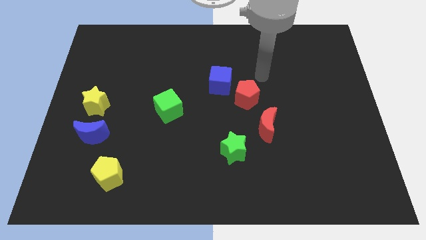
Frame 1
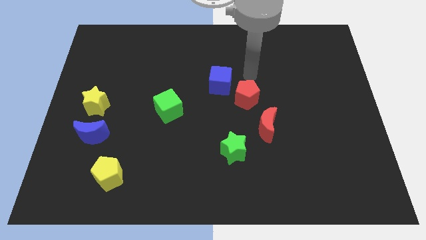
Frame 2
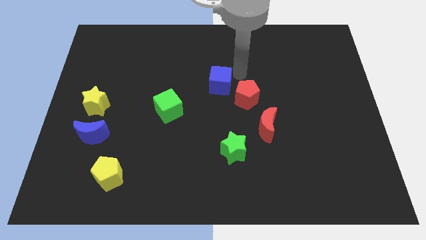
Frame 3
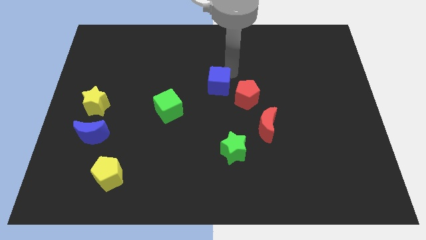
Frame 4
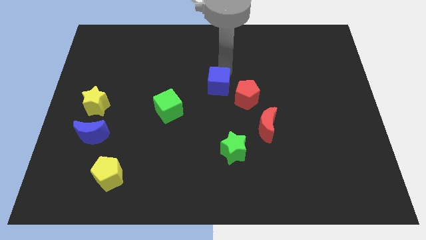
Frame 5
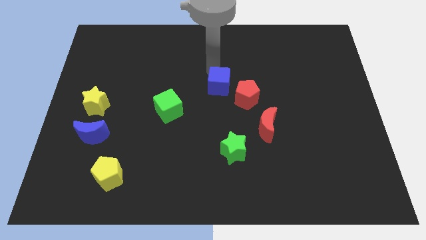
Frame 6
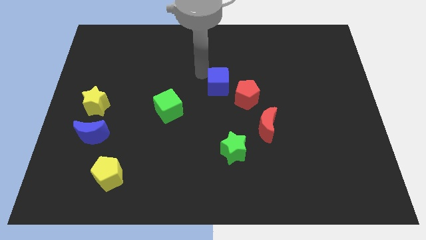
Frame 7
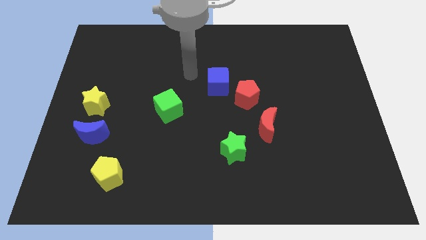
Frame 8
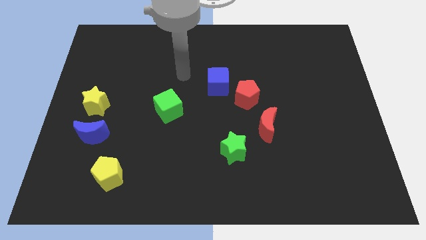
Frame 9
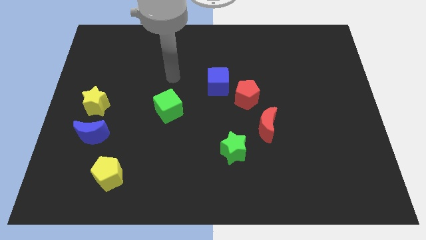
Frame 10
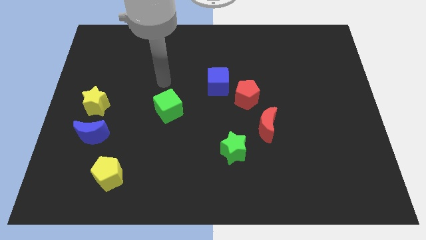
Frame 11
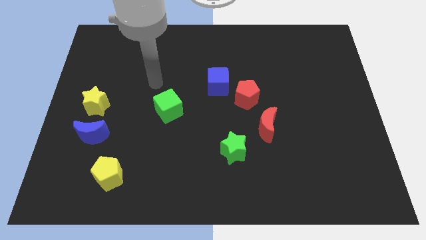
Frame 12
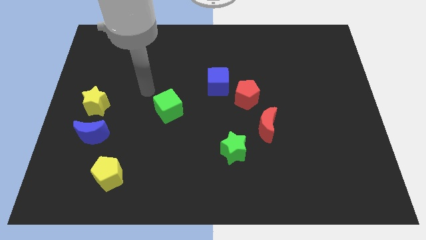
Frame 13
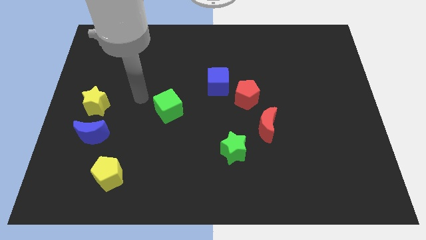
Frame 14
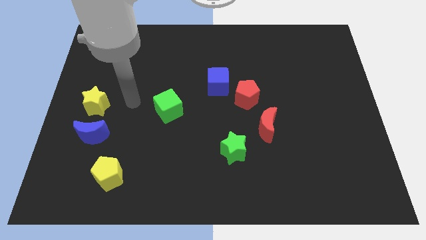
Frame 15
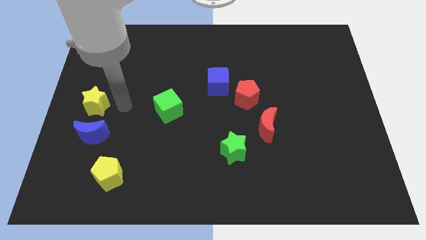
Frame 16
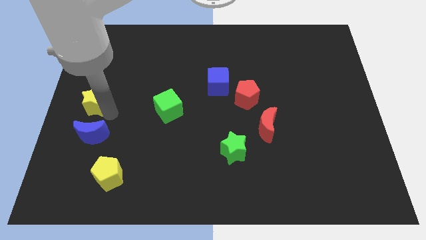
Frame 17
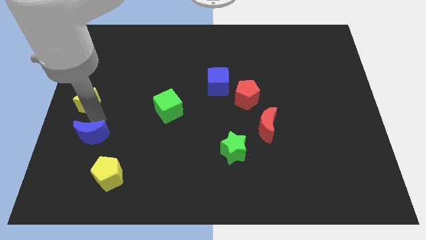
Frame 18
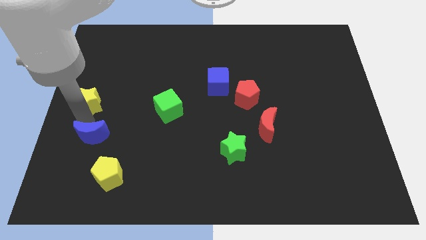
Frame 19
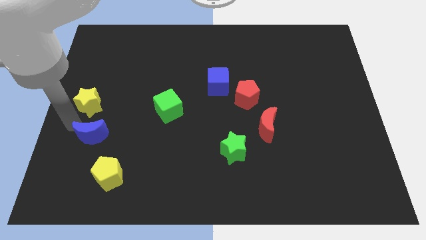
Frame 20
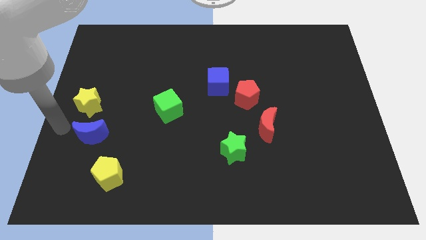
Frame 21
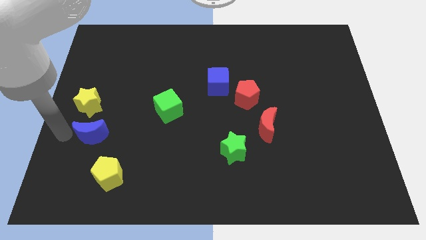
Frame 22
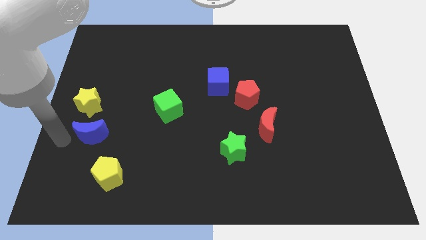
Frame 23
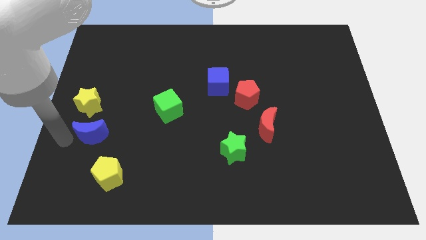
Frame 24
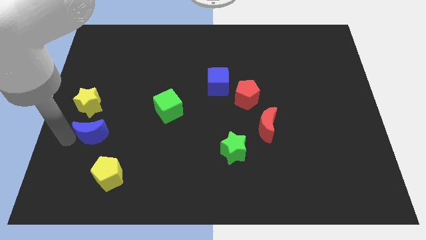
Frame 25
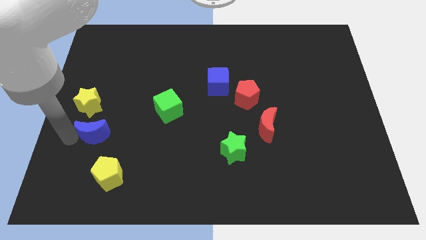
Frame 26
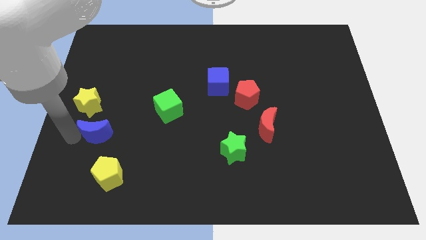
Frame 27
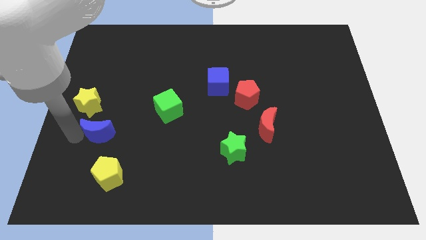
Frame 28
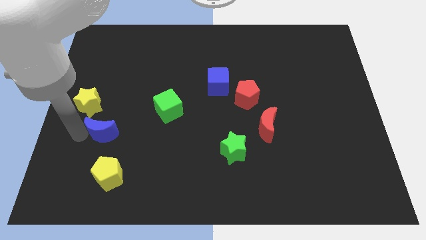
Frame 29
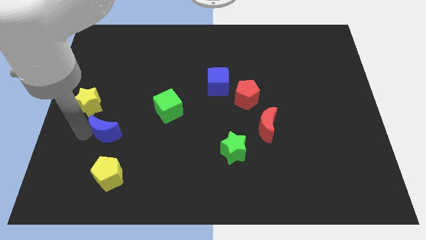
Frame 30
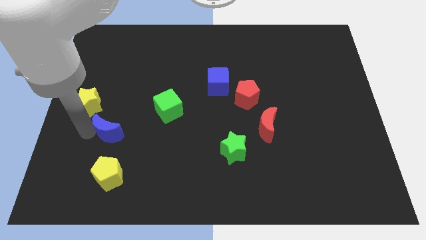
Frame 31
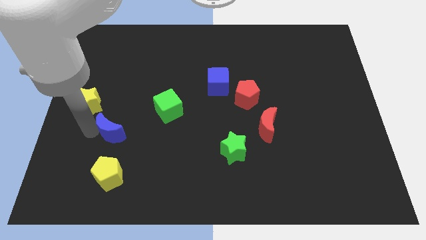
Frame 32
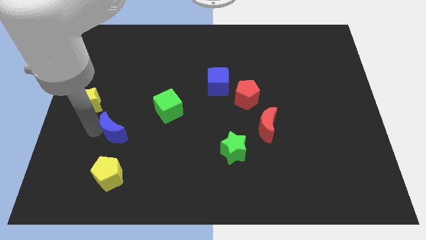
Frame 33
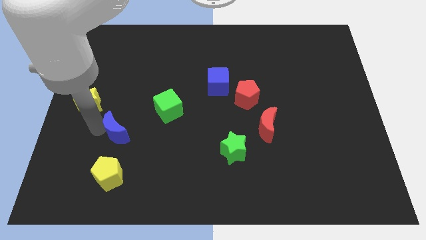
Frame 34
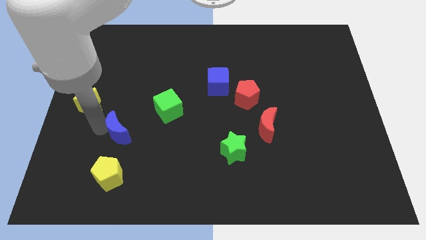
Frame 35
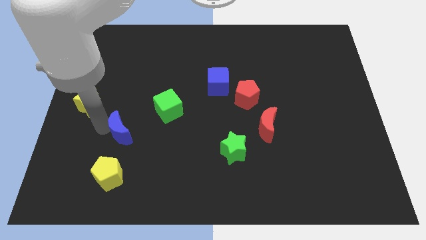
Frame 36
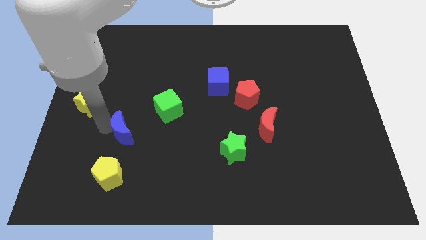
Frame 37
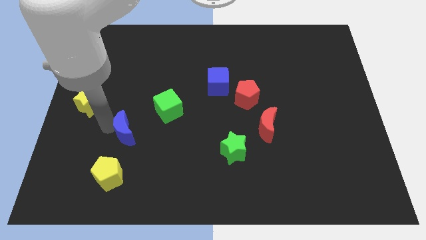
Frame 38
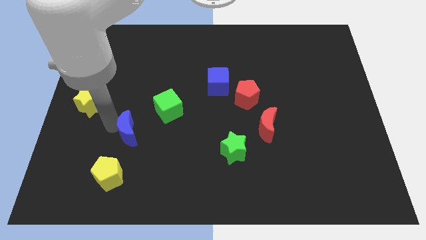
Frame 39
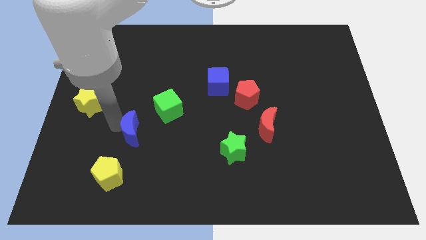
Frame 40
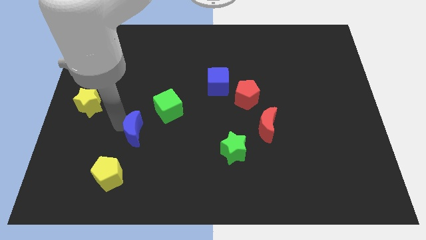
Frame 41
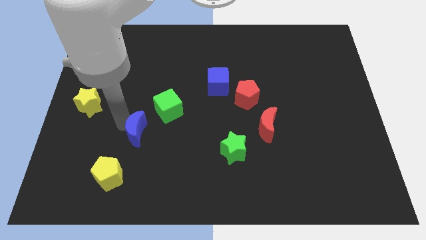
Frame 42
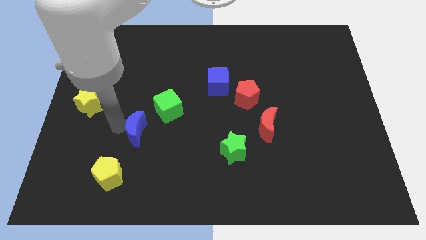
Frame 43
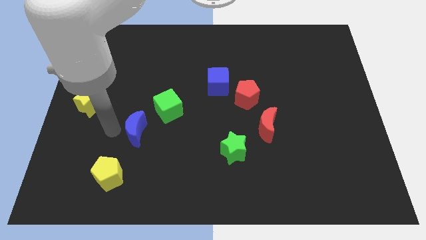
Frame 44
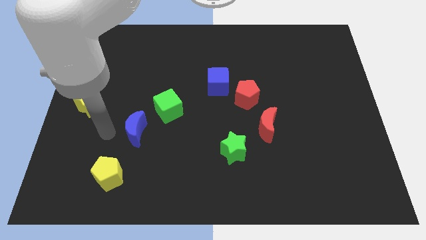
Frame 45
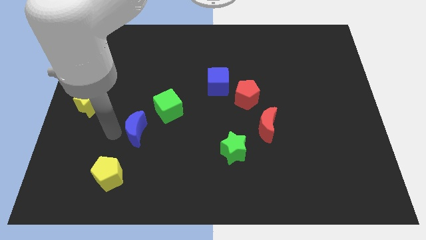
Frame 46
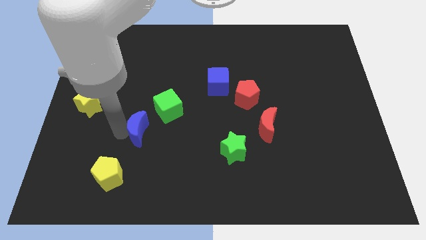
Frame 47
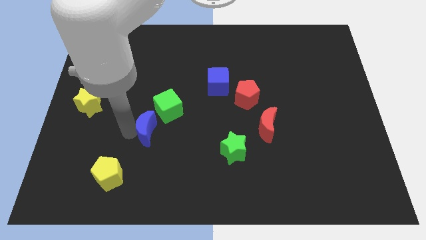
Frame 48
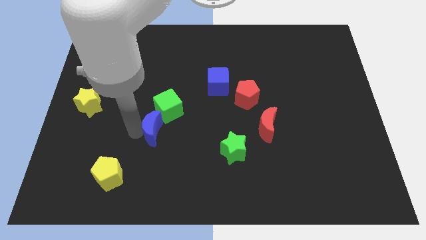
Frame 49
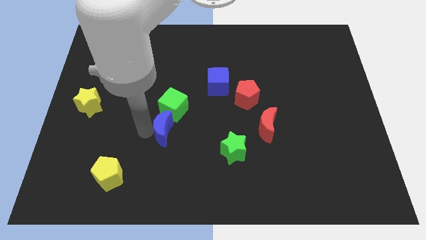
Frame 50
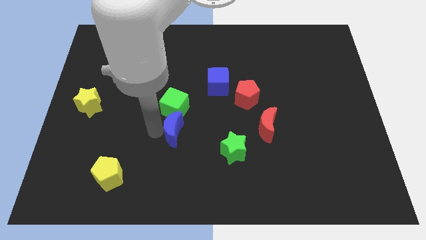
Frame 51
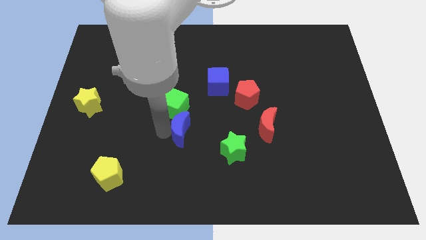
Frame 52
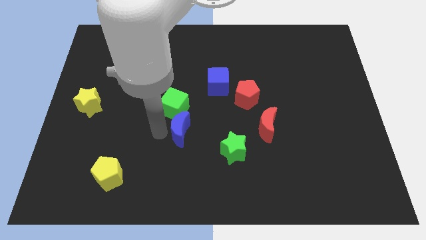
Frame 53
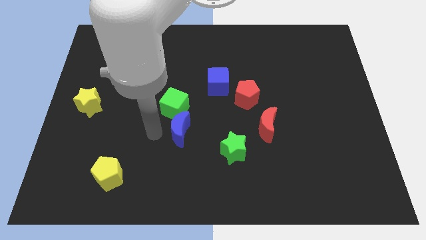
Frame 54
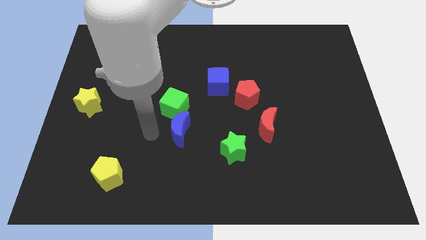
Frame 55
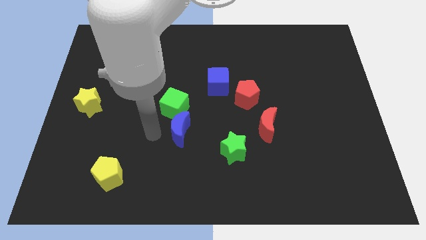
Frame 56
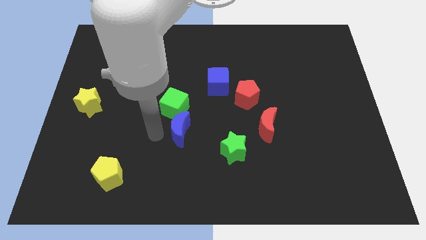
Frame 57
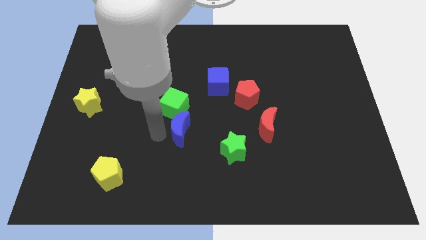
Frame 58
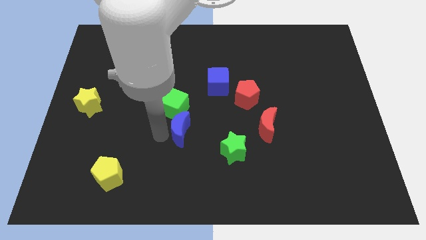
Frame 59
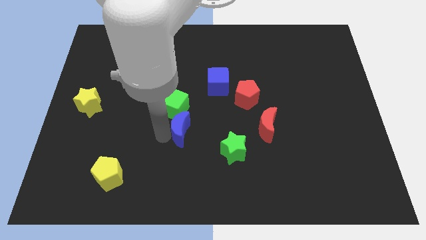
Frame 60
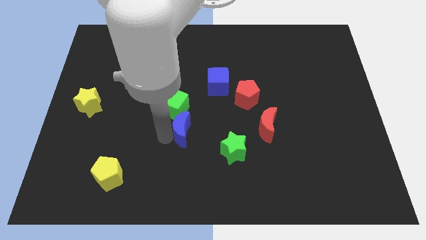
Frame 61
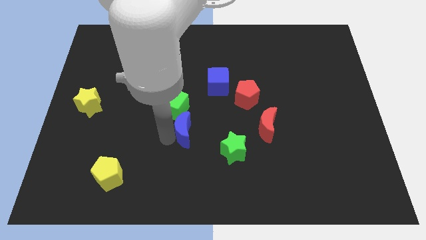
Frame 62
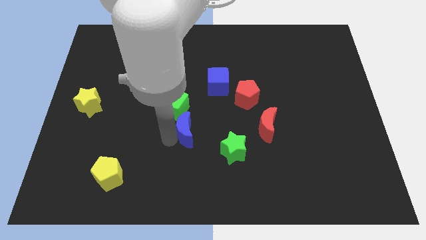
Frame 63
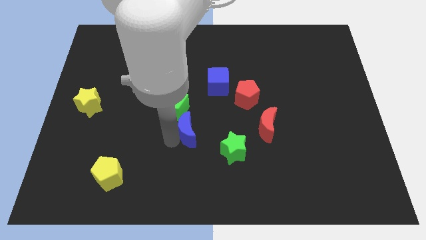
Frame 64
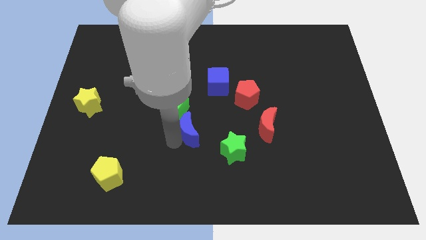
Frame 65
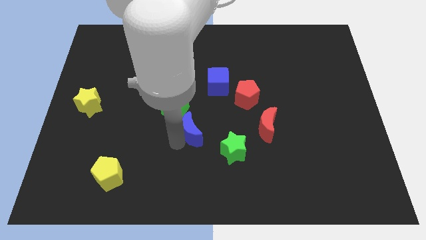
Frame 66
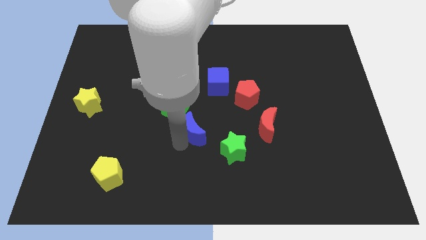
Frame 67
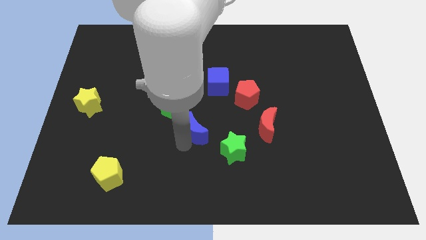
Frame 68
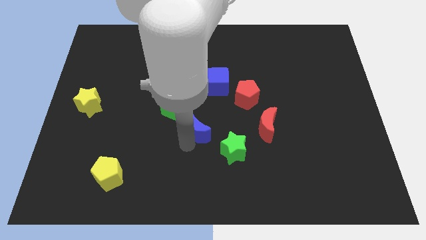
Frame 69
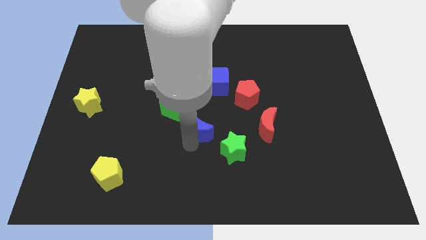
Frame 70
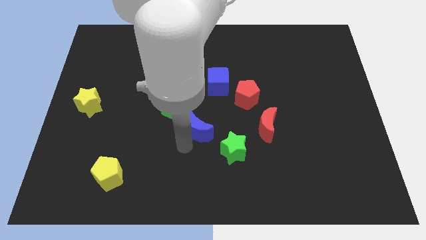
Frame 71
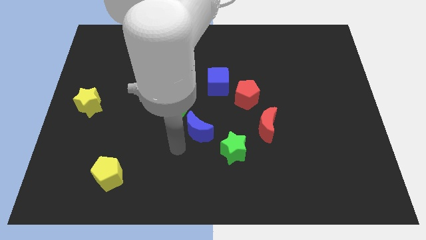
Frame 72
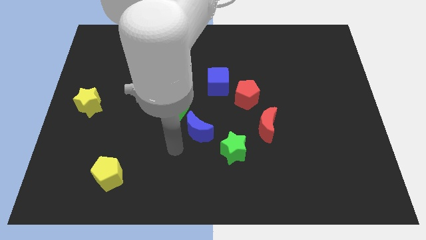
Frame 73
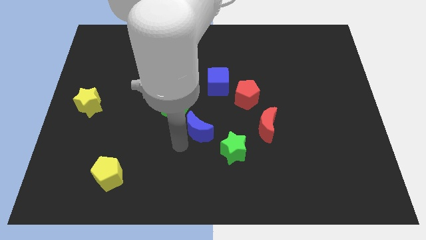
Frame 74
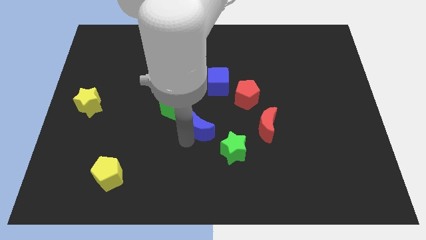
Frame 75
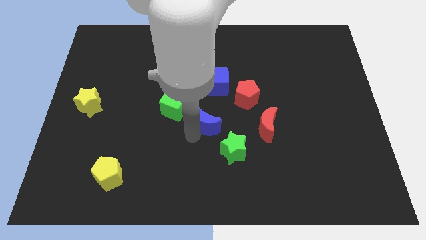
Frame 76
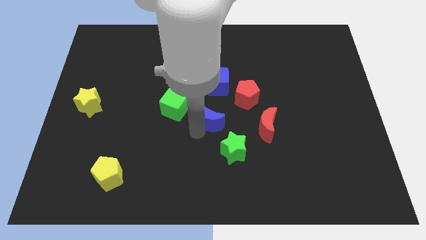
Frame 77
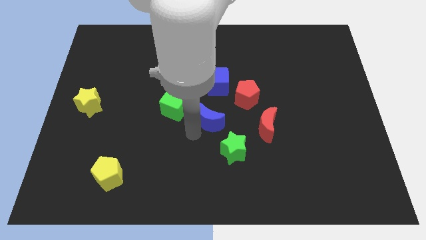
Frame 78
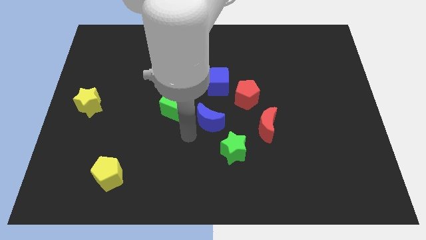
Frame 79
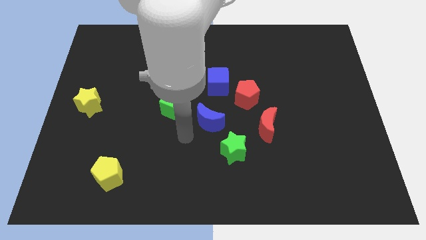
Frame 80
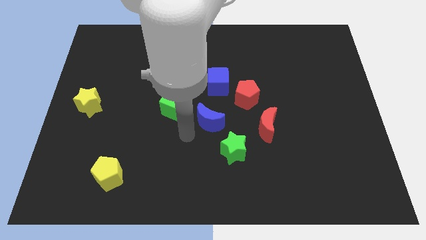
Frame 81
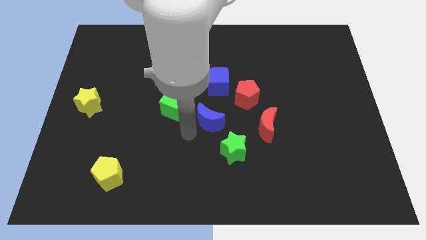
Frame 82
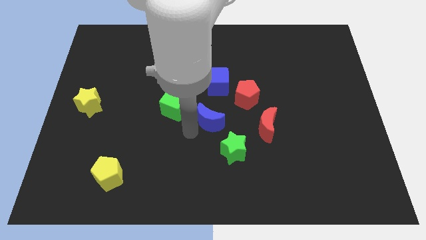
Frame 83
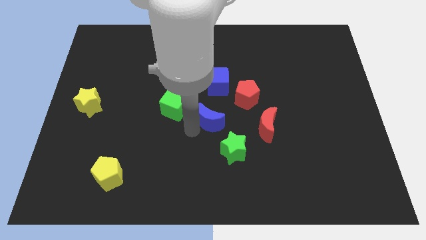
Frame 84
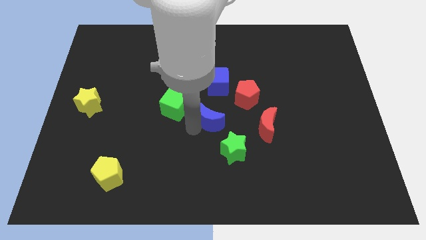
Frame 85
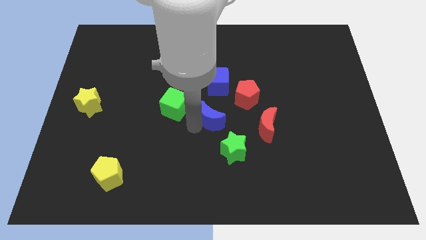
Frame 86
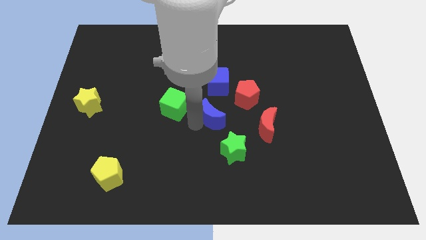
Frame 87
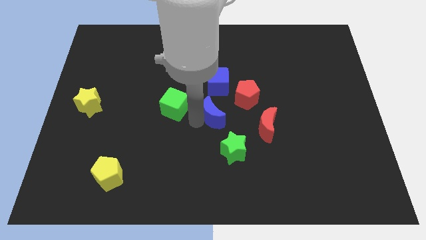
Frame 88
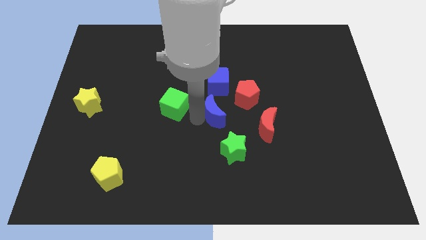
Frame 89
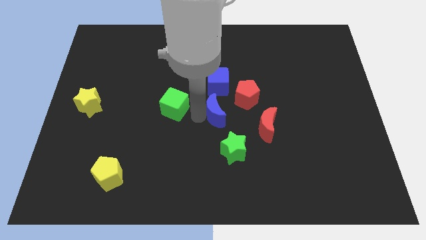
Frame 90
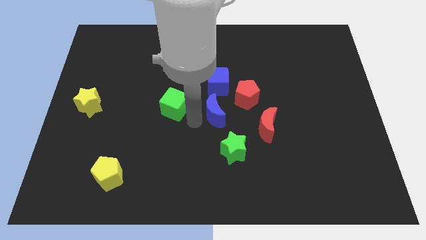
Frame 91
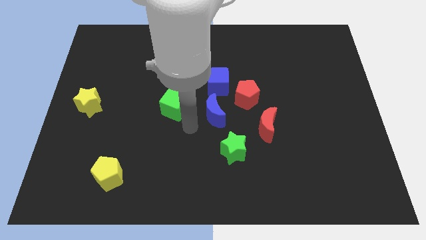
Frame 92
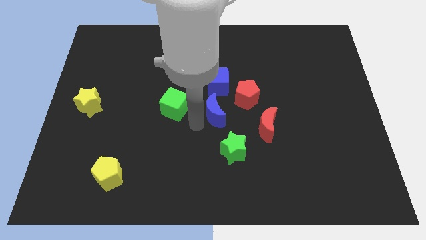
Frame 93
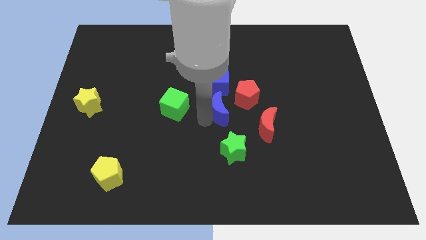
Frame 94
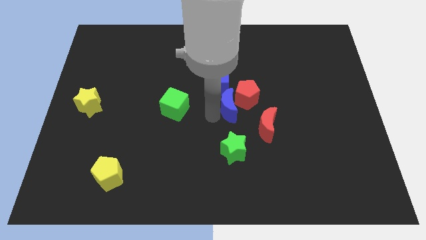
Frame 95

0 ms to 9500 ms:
put the blue moon next to the red pentagon
